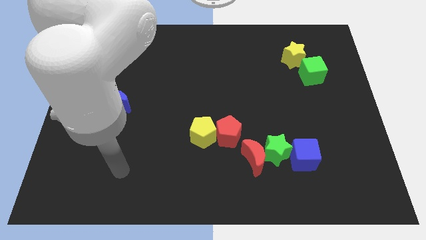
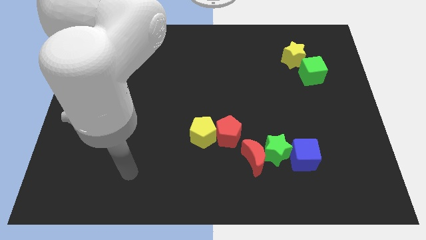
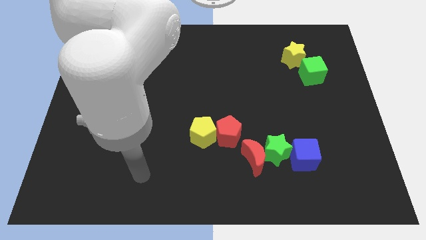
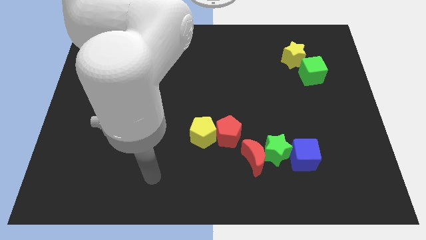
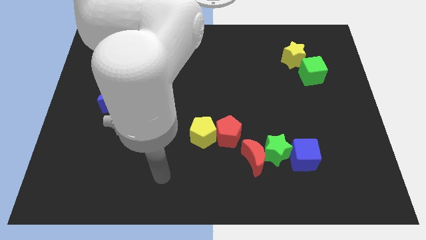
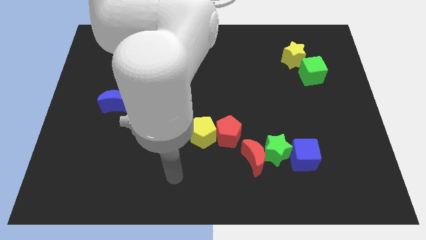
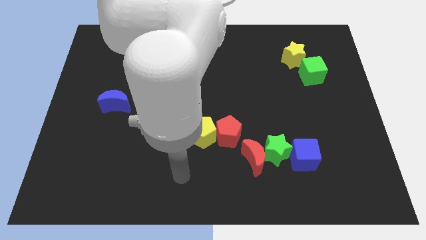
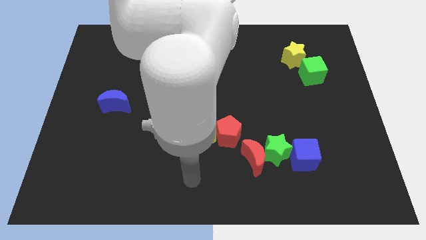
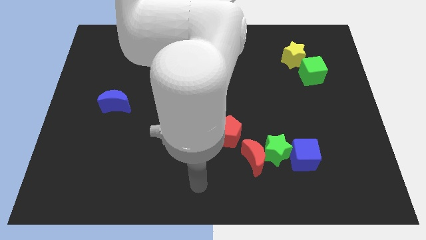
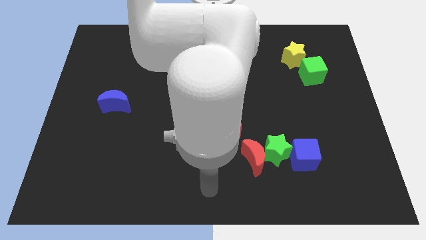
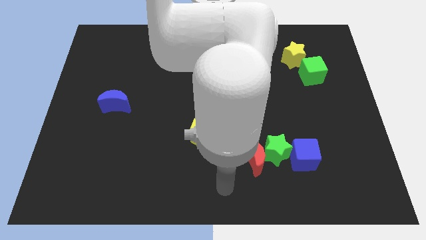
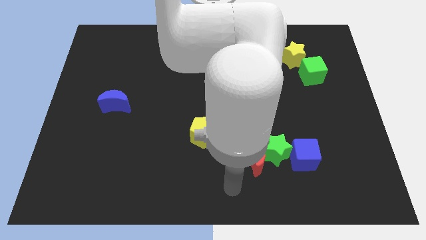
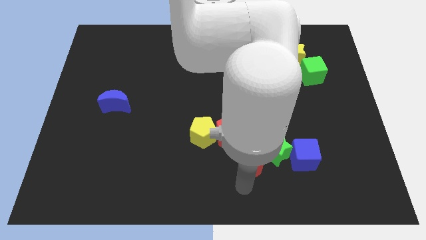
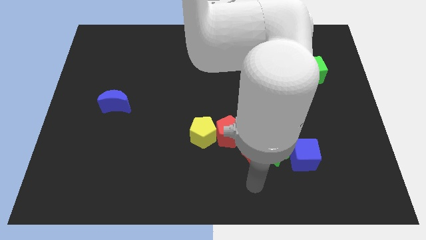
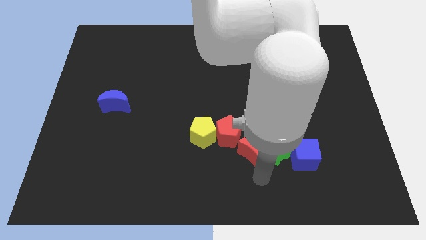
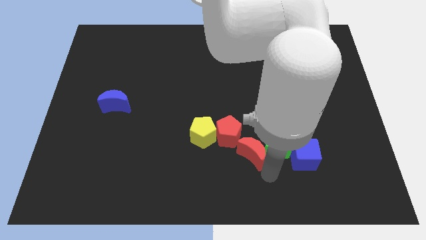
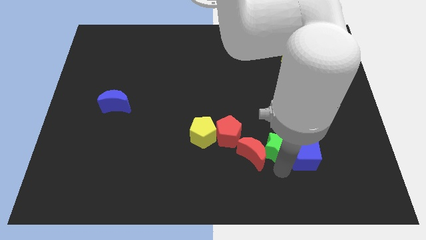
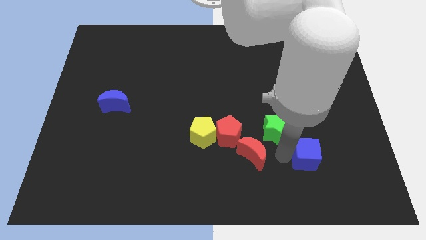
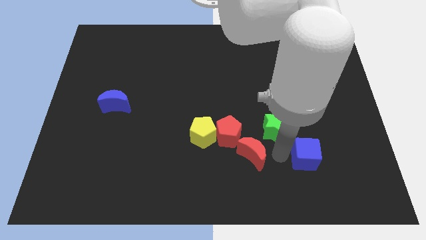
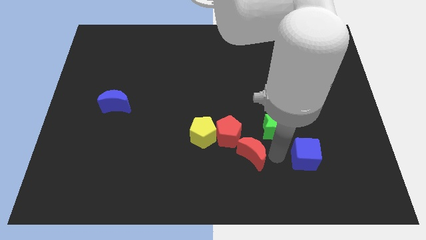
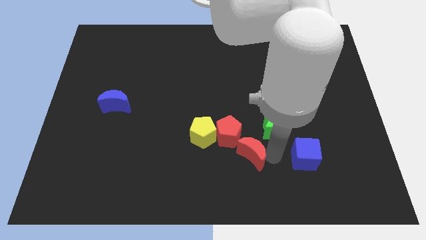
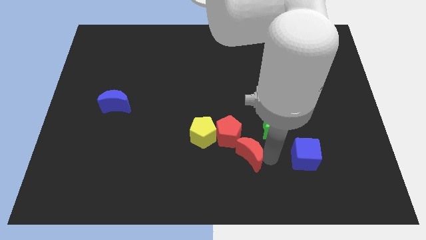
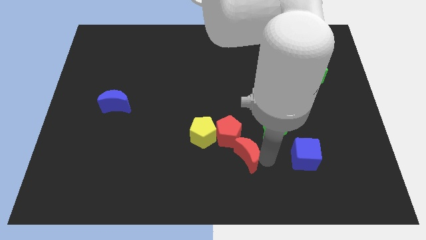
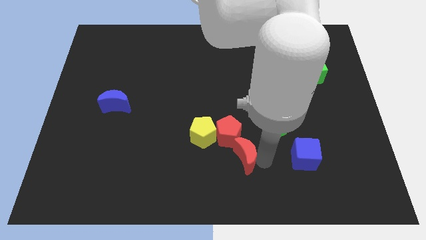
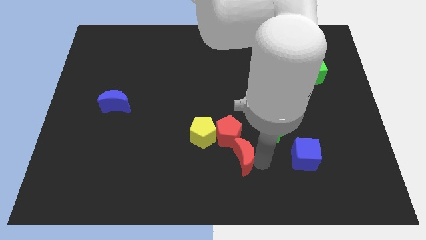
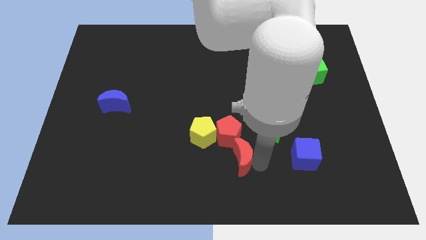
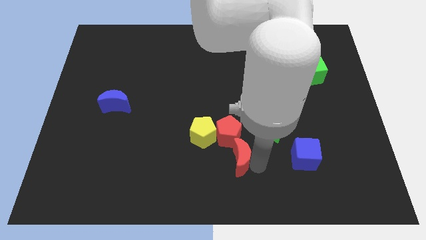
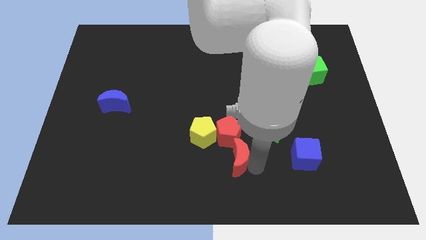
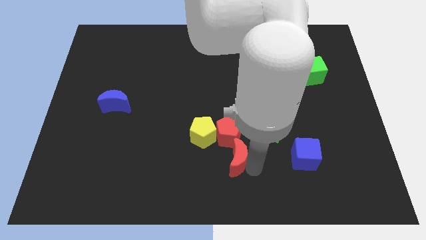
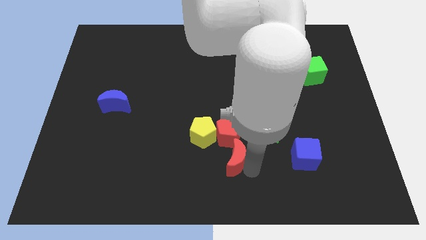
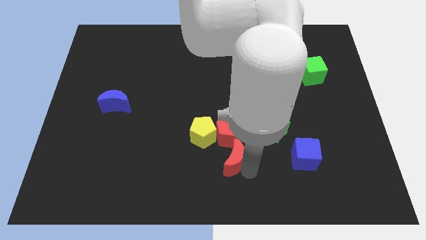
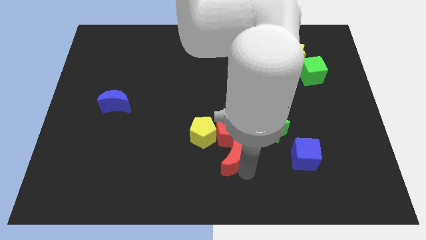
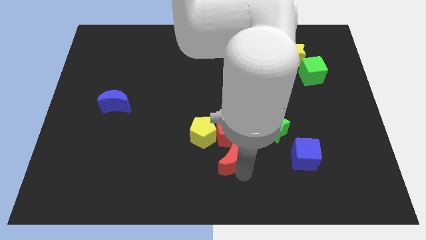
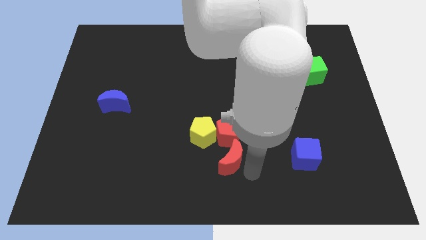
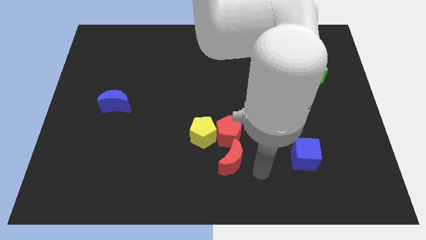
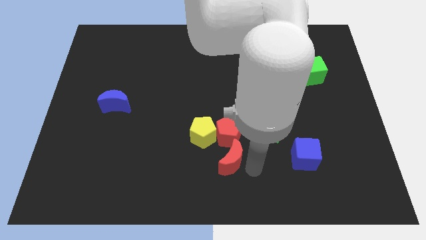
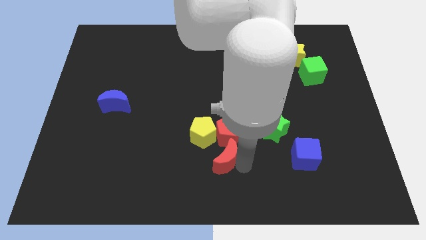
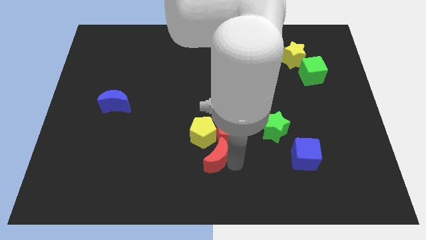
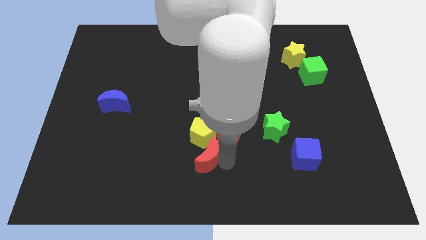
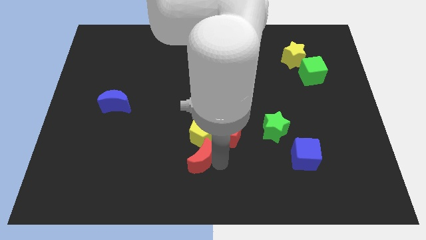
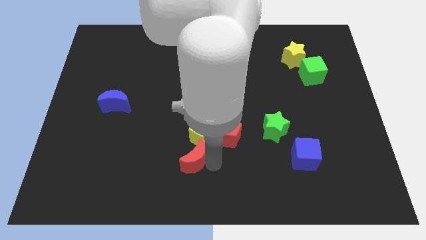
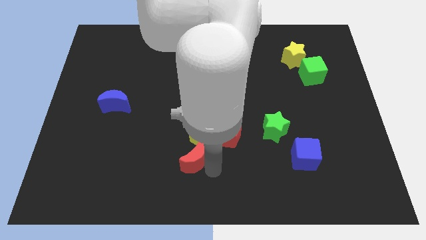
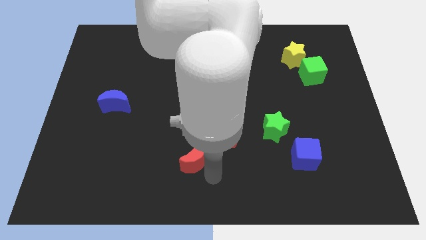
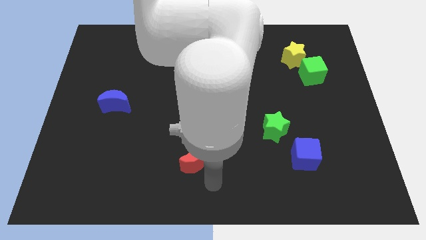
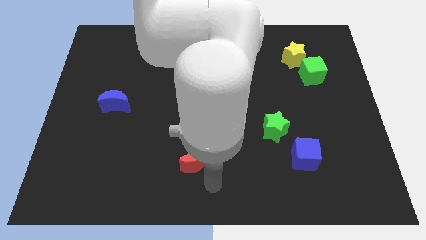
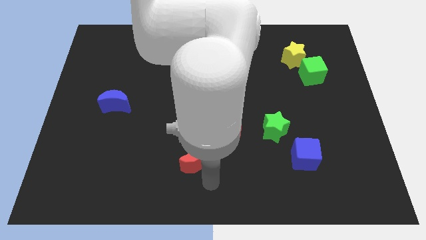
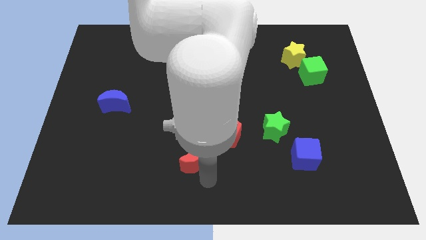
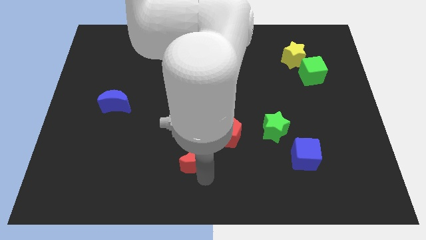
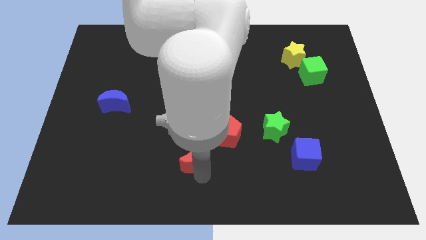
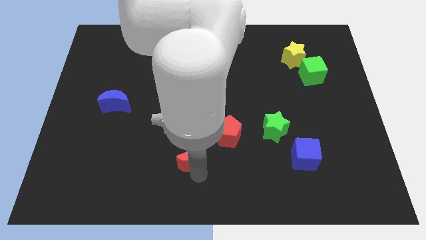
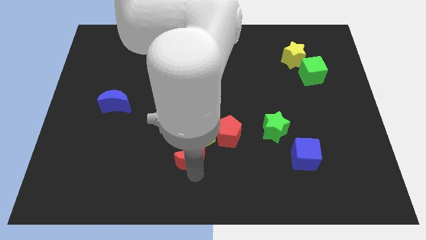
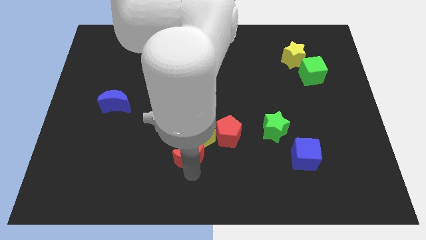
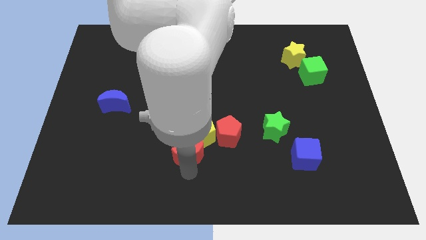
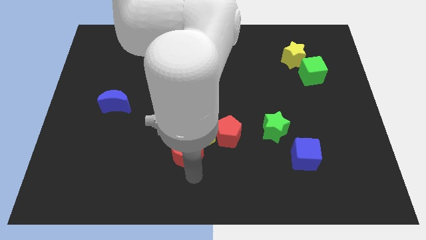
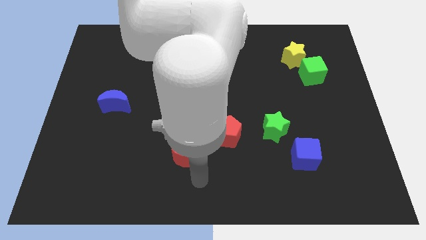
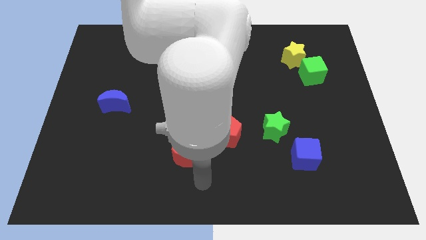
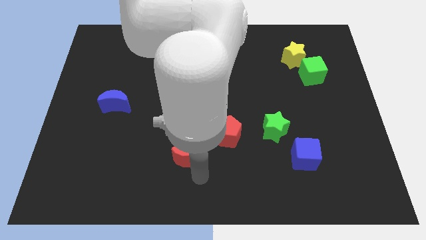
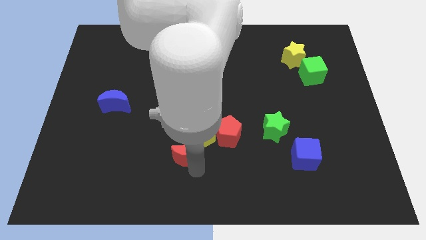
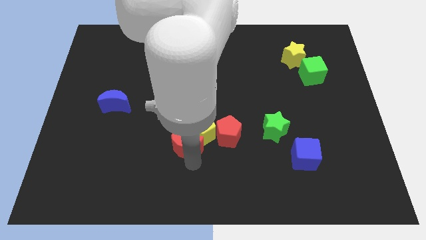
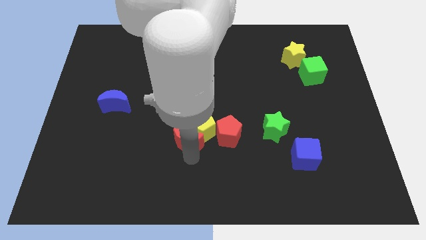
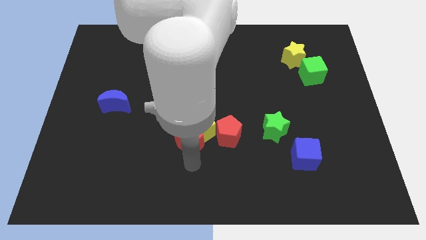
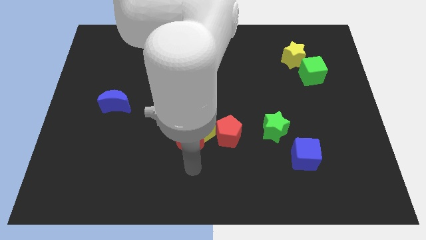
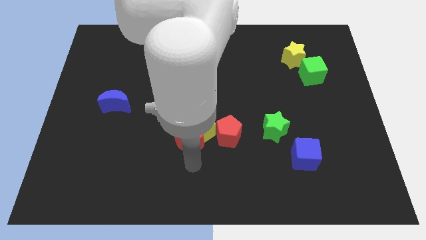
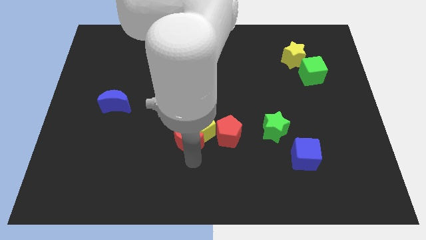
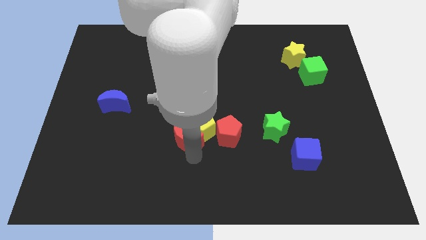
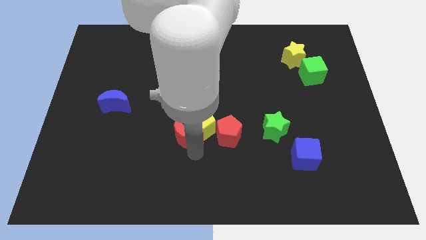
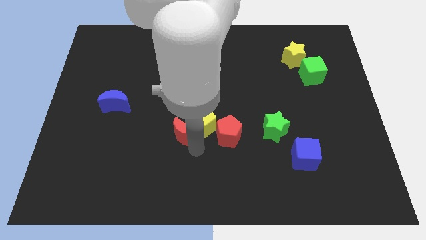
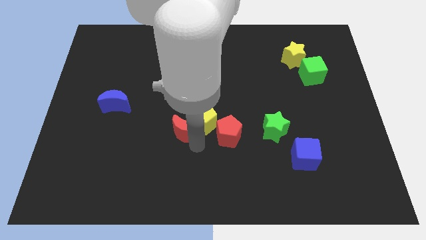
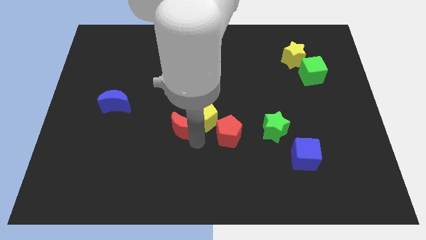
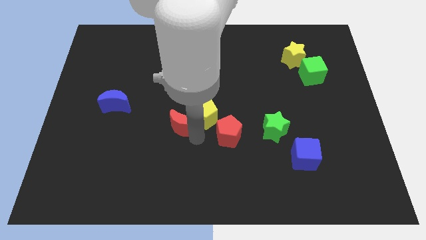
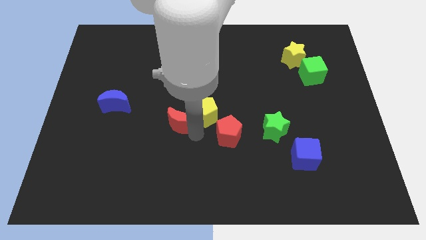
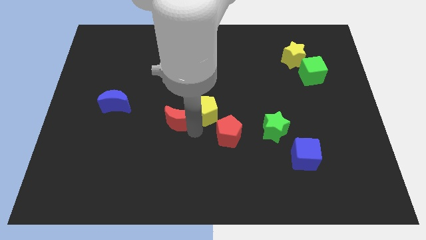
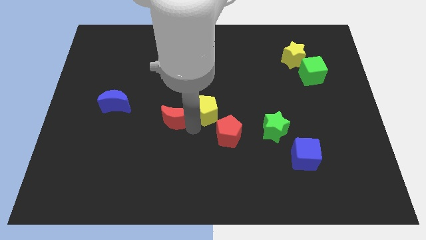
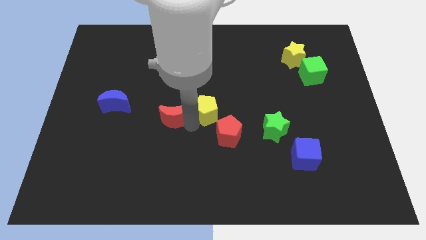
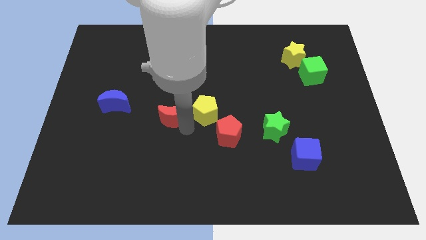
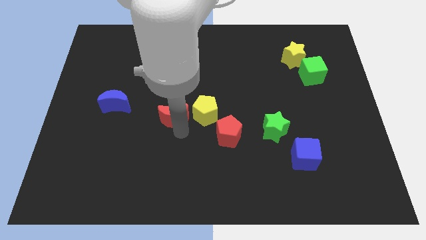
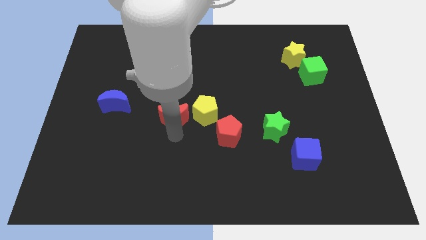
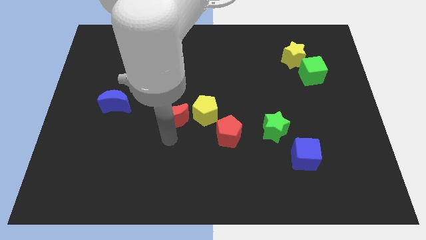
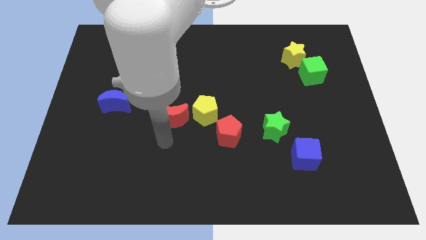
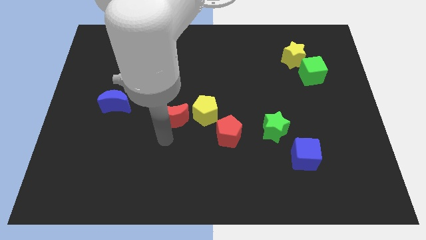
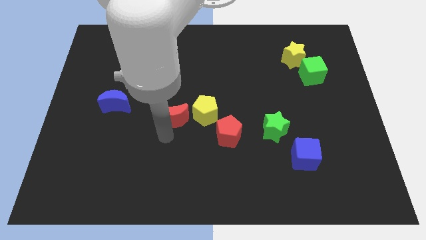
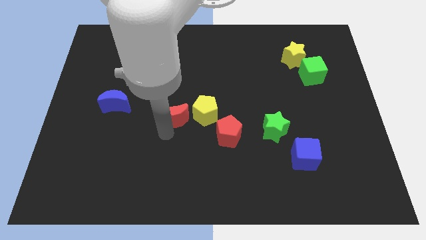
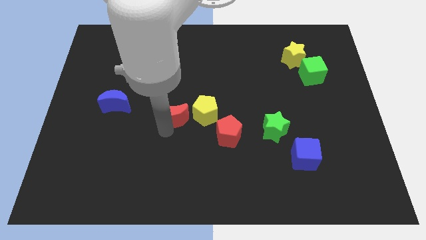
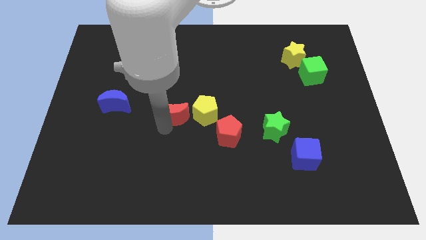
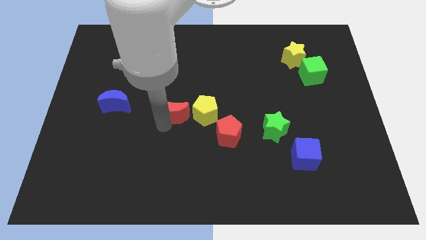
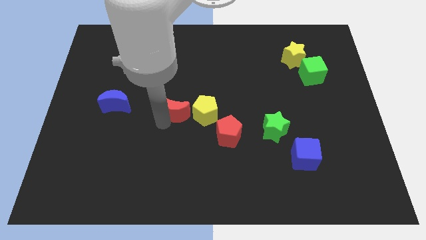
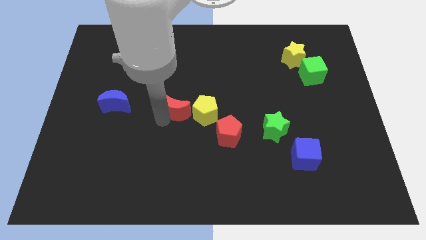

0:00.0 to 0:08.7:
move the red moon to the top left of the yellow pentagon
